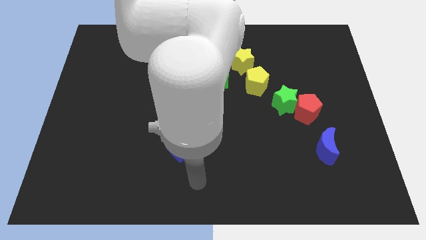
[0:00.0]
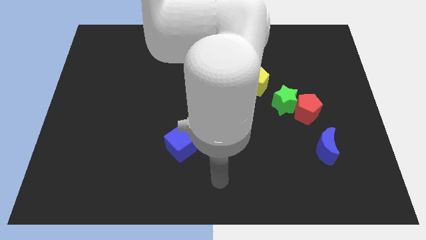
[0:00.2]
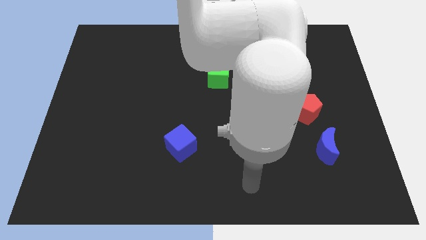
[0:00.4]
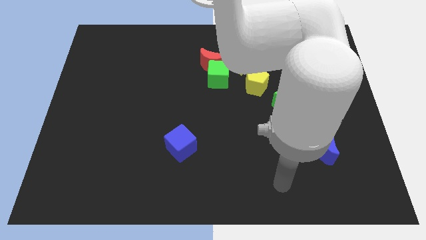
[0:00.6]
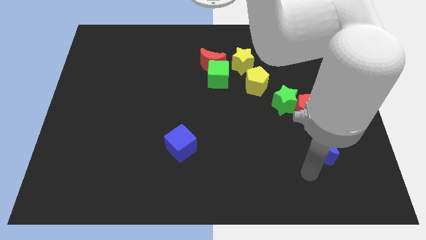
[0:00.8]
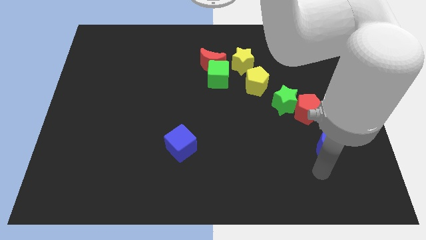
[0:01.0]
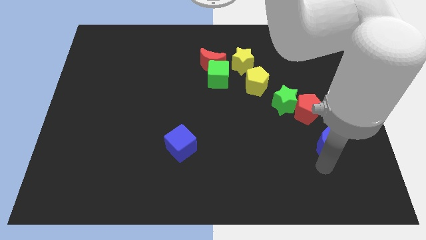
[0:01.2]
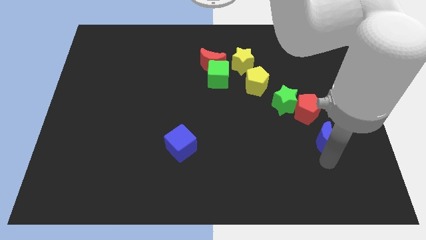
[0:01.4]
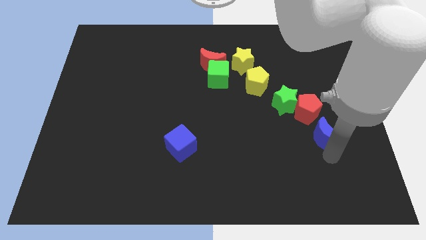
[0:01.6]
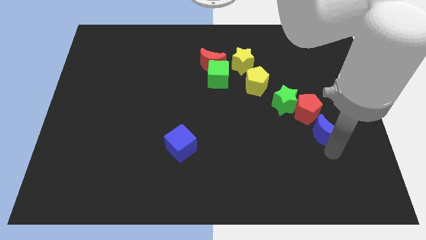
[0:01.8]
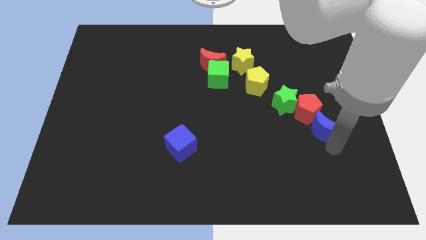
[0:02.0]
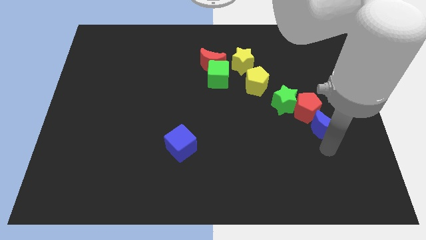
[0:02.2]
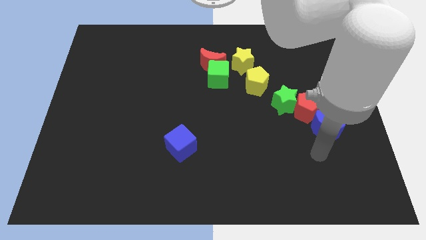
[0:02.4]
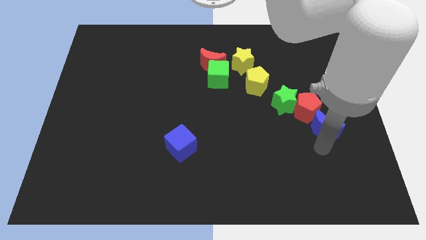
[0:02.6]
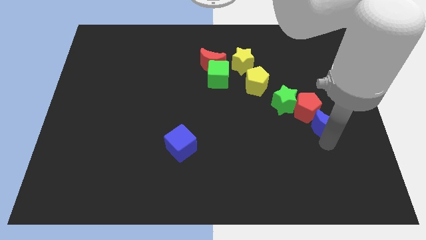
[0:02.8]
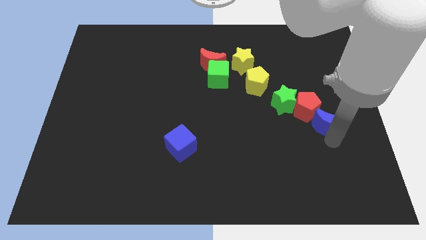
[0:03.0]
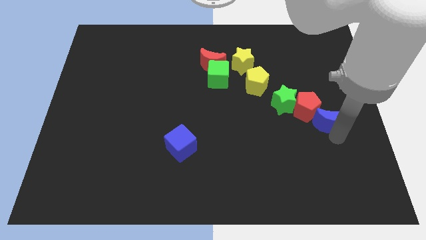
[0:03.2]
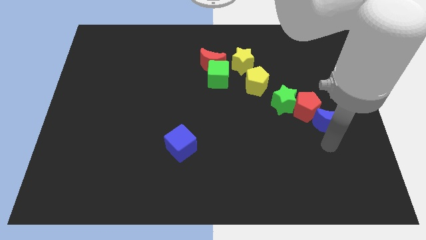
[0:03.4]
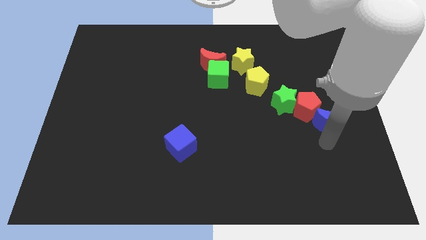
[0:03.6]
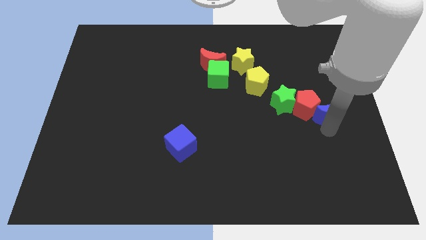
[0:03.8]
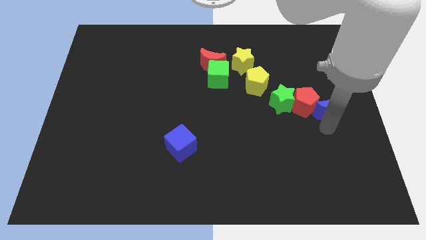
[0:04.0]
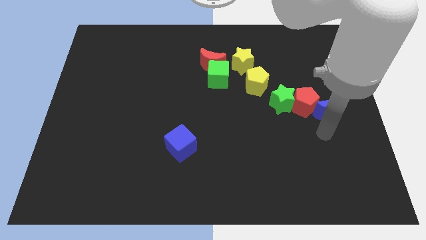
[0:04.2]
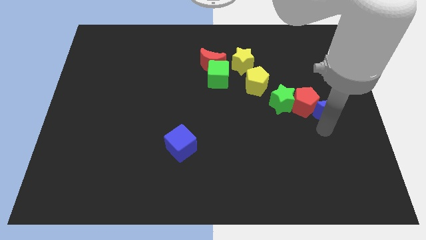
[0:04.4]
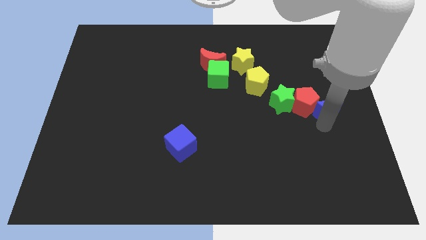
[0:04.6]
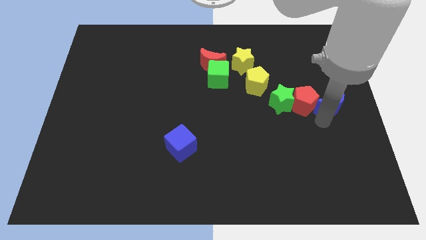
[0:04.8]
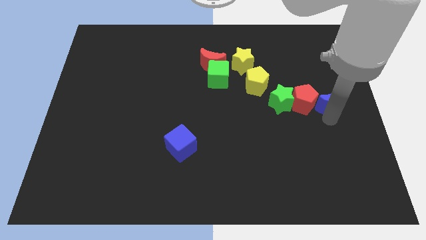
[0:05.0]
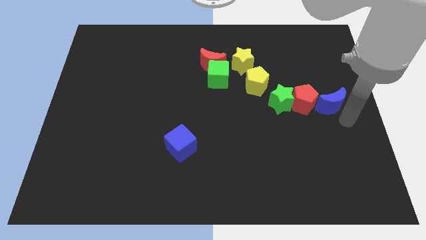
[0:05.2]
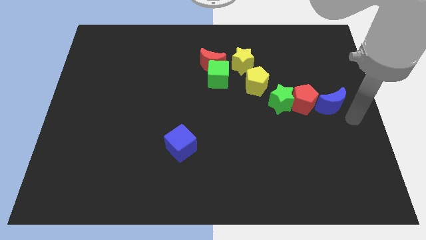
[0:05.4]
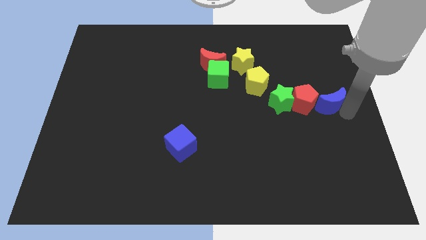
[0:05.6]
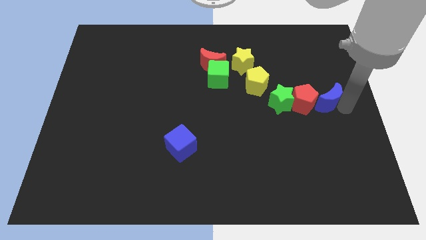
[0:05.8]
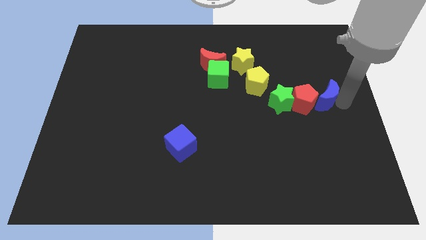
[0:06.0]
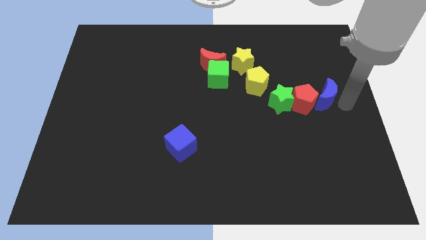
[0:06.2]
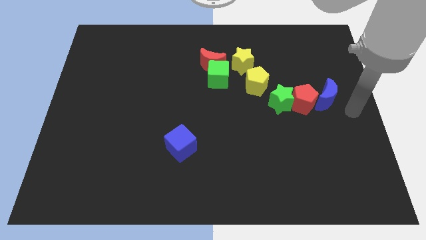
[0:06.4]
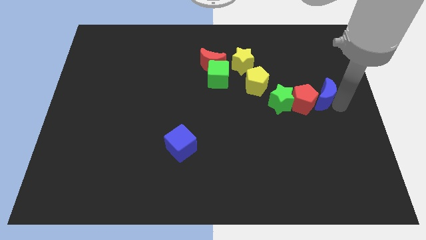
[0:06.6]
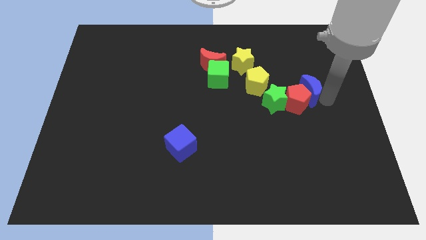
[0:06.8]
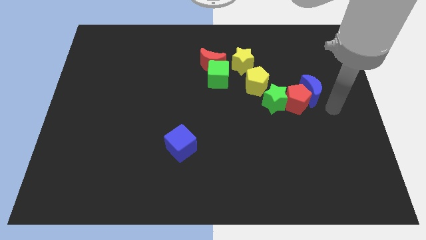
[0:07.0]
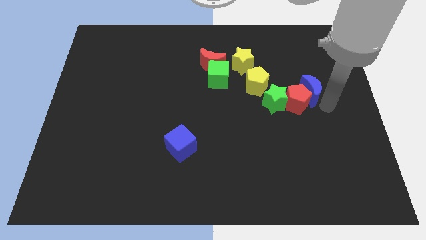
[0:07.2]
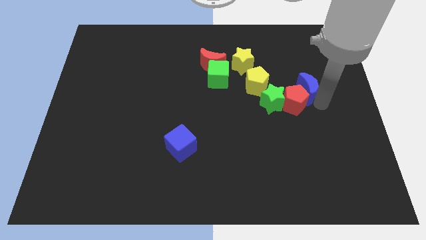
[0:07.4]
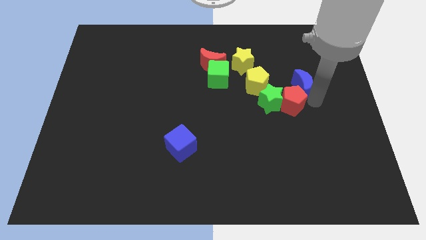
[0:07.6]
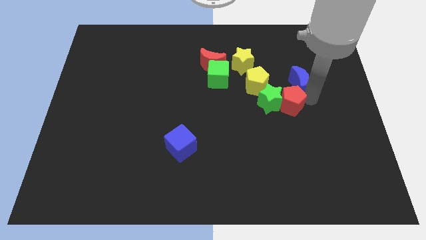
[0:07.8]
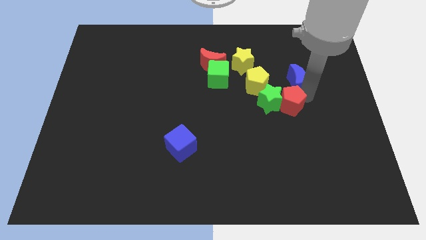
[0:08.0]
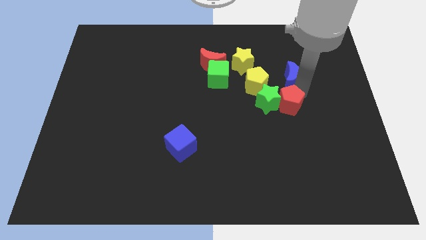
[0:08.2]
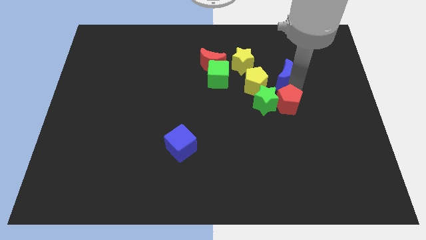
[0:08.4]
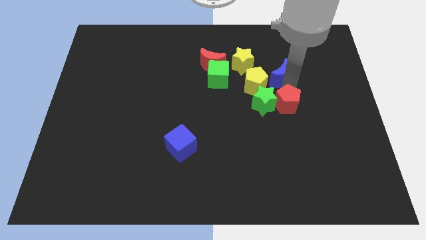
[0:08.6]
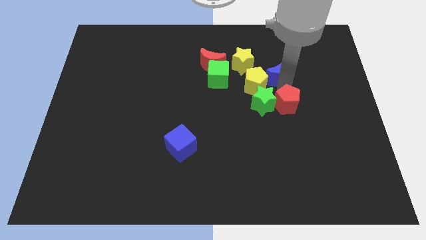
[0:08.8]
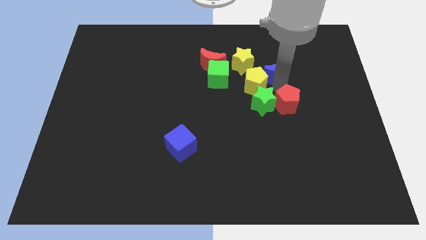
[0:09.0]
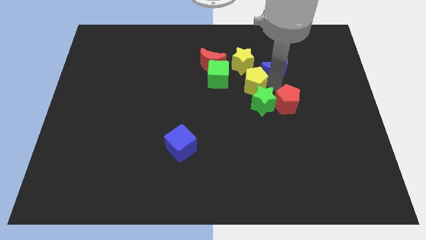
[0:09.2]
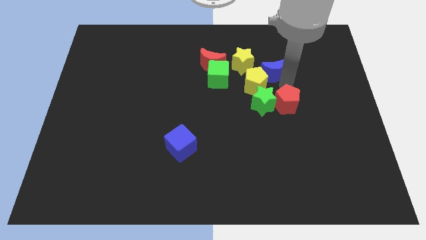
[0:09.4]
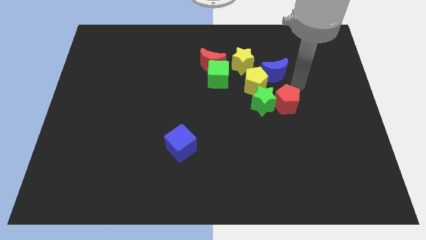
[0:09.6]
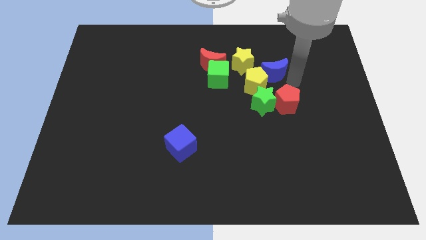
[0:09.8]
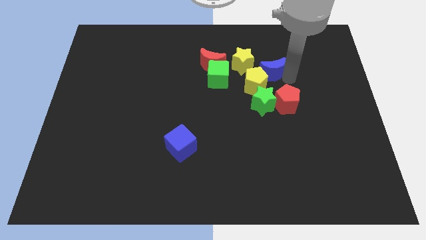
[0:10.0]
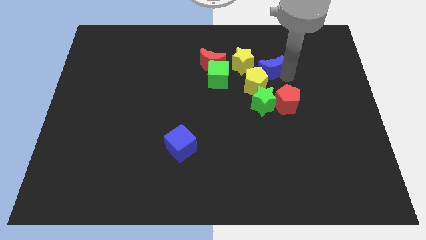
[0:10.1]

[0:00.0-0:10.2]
slide the blue moon to the right side of the red moon

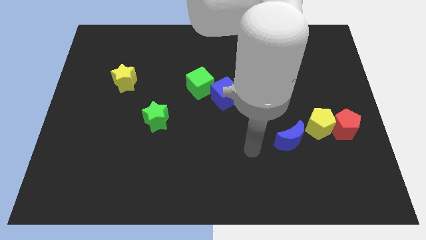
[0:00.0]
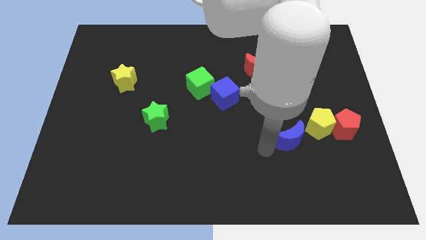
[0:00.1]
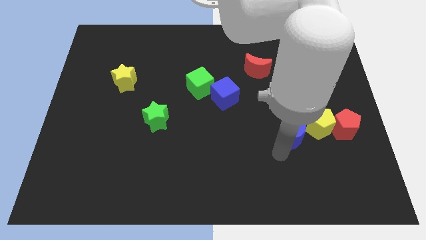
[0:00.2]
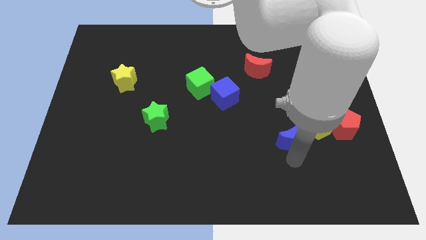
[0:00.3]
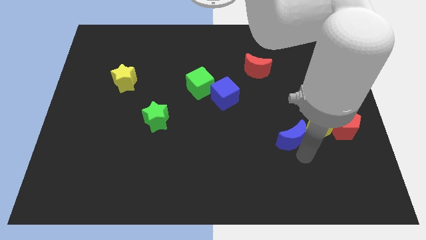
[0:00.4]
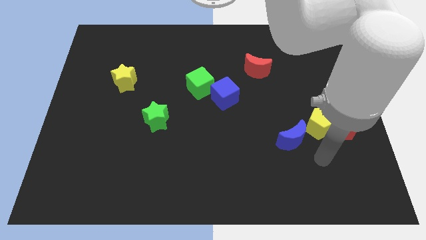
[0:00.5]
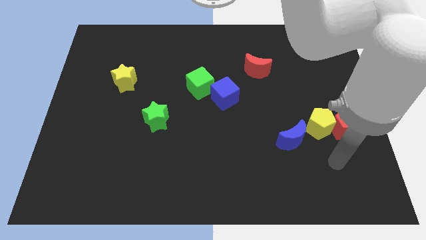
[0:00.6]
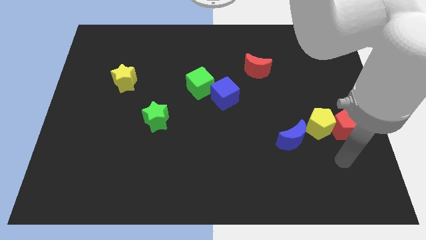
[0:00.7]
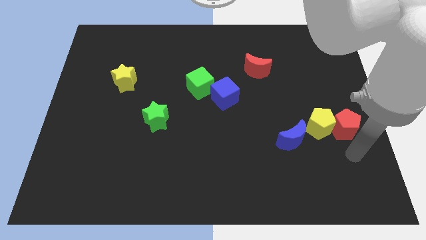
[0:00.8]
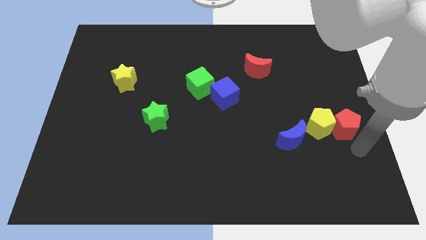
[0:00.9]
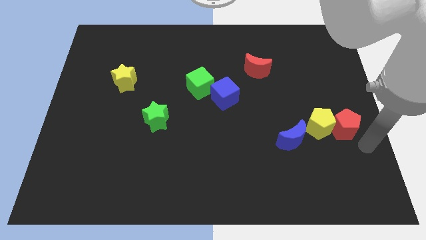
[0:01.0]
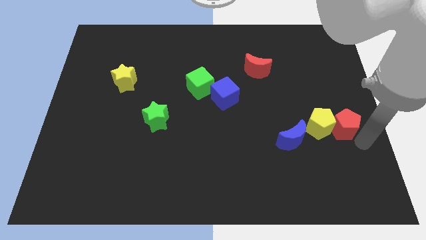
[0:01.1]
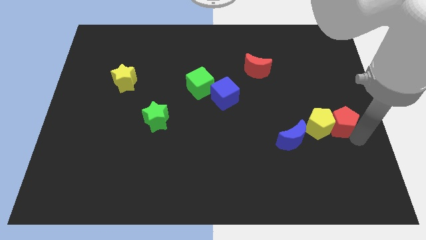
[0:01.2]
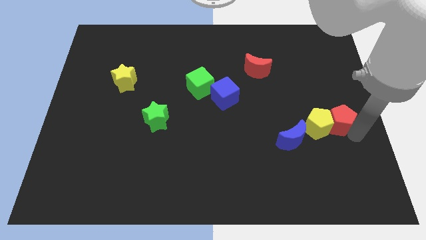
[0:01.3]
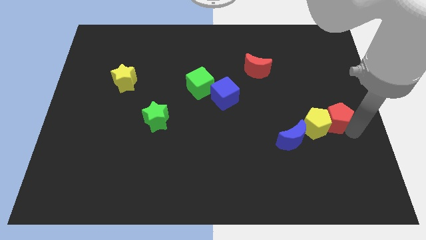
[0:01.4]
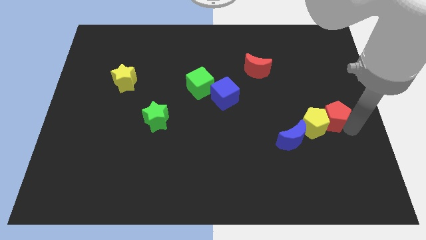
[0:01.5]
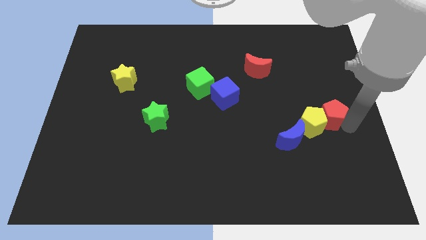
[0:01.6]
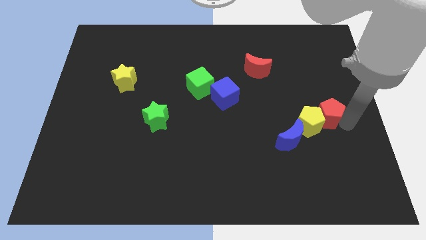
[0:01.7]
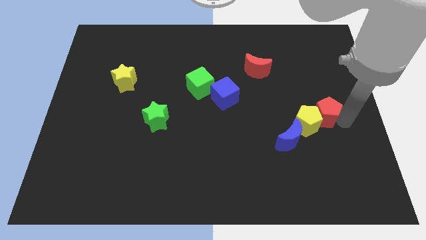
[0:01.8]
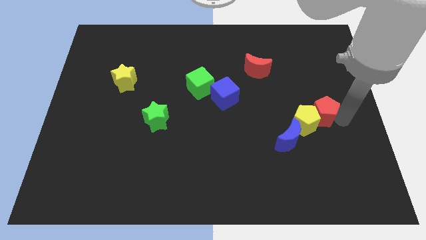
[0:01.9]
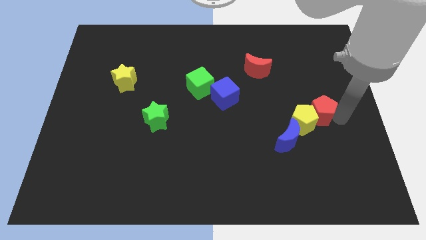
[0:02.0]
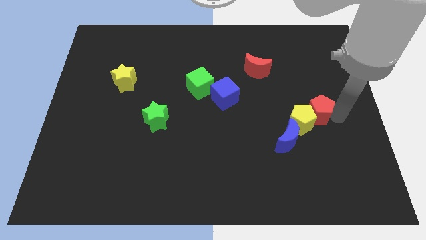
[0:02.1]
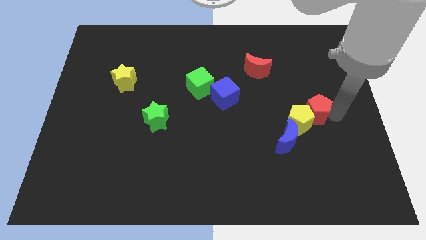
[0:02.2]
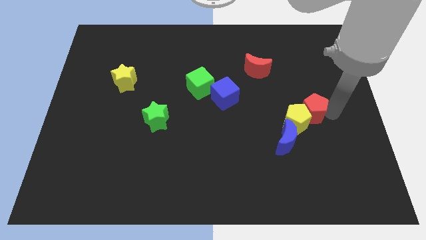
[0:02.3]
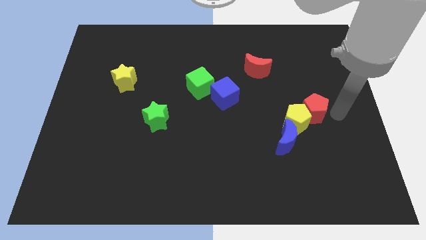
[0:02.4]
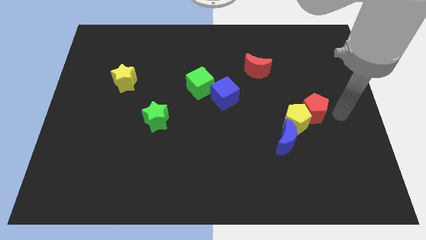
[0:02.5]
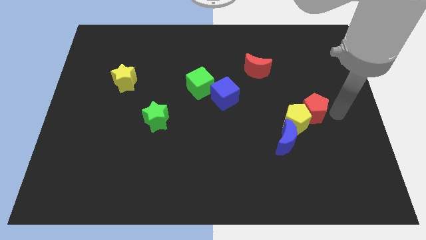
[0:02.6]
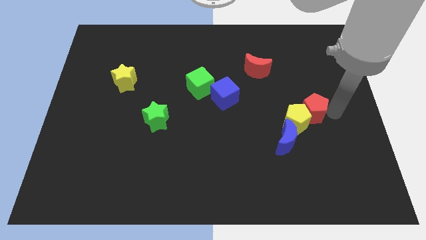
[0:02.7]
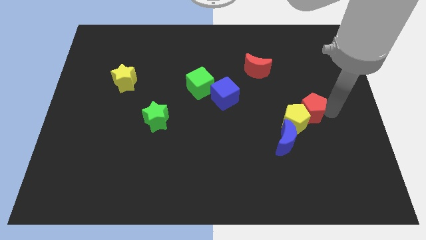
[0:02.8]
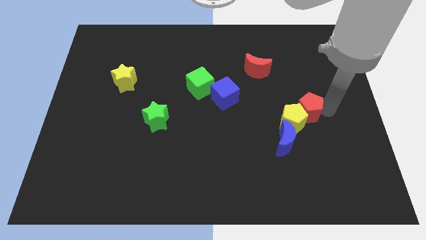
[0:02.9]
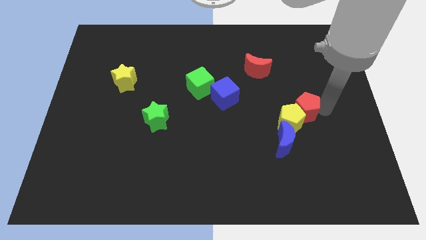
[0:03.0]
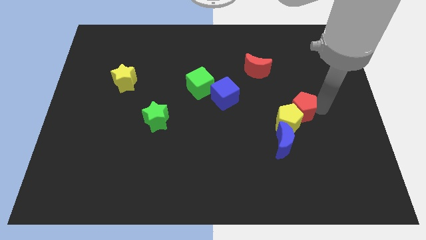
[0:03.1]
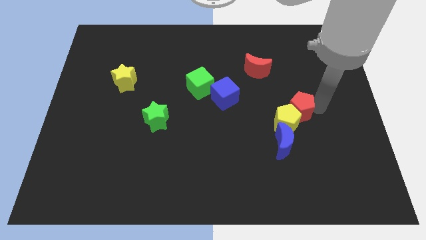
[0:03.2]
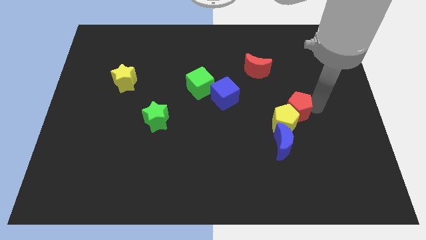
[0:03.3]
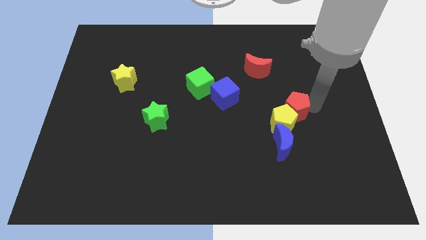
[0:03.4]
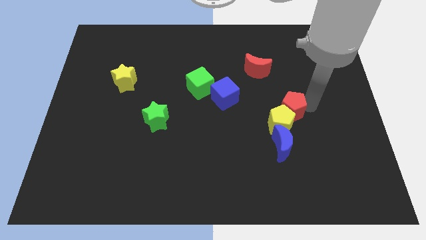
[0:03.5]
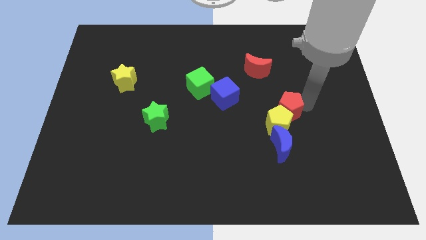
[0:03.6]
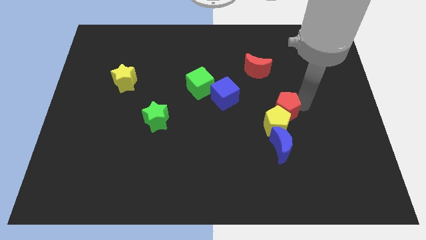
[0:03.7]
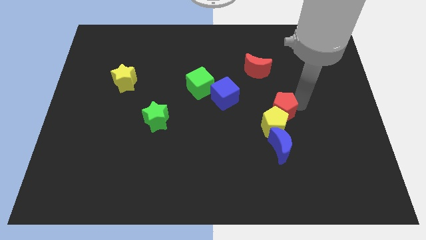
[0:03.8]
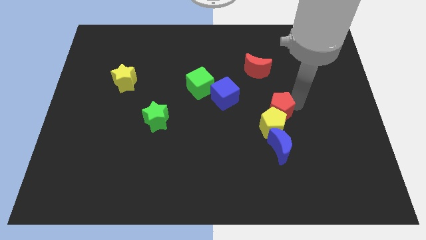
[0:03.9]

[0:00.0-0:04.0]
put the red pentagon below the red moon
